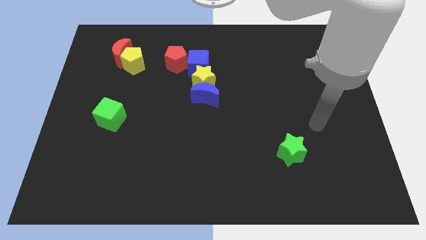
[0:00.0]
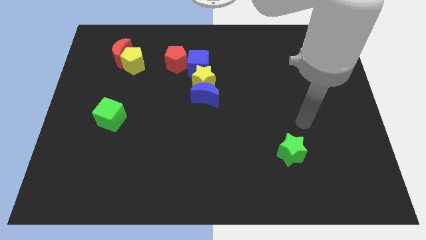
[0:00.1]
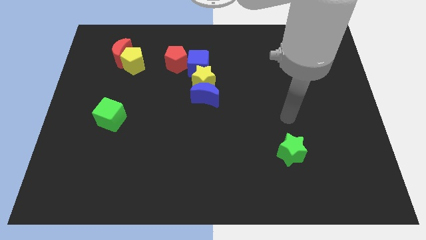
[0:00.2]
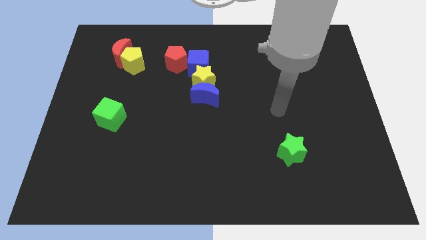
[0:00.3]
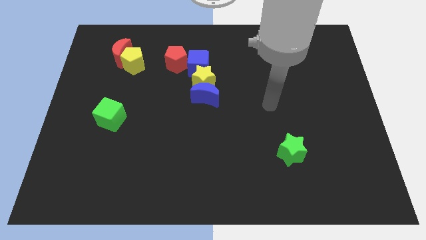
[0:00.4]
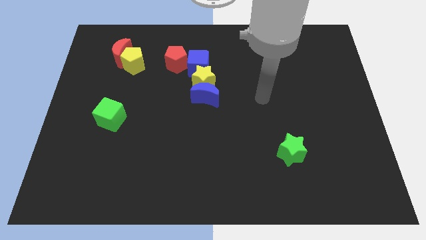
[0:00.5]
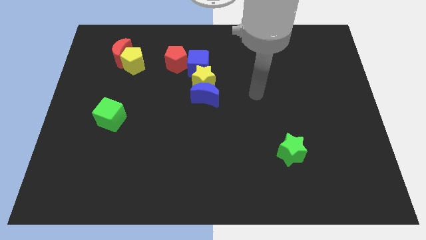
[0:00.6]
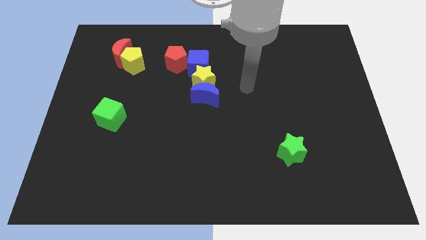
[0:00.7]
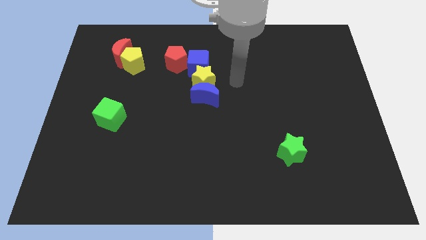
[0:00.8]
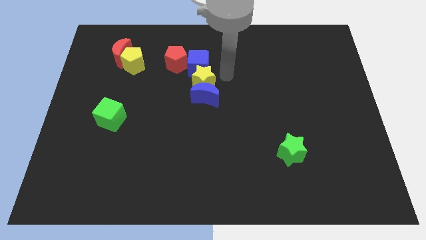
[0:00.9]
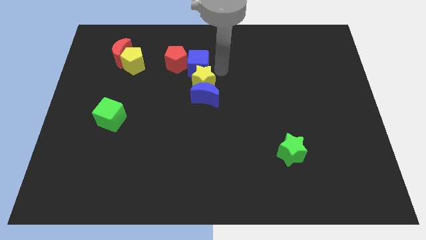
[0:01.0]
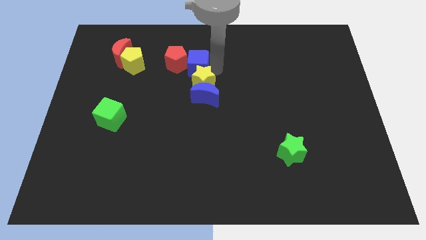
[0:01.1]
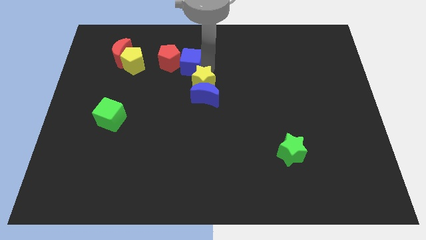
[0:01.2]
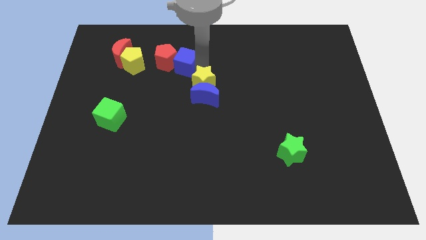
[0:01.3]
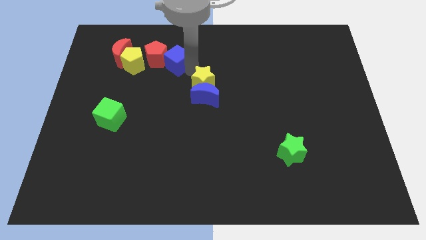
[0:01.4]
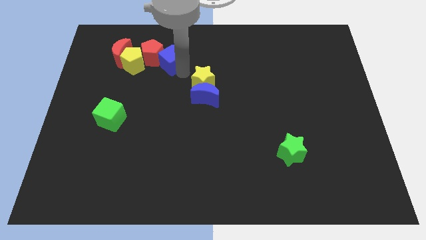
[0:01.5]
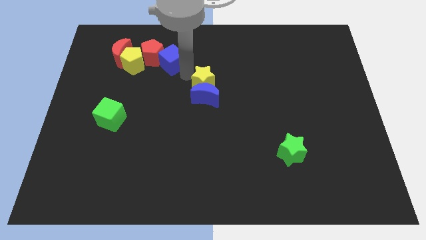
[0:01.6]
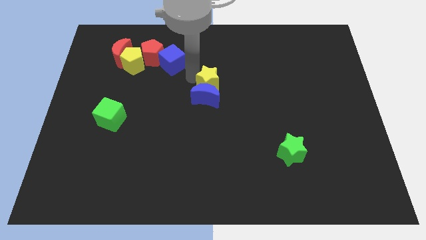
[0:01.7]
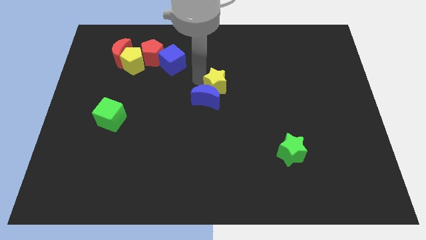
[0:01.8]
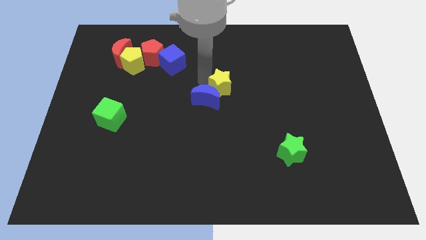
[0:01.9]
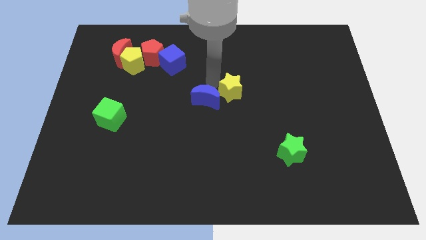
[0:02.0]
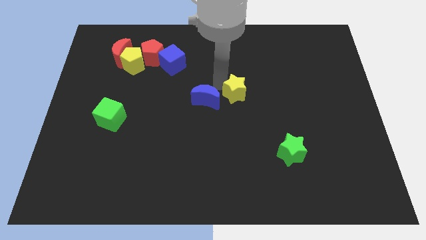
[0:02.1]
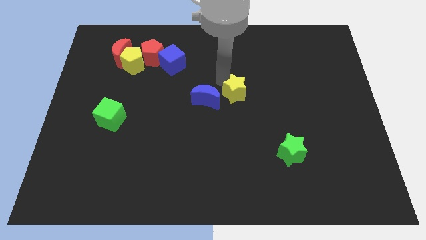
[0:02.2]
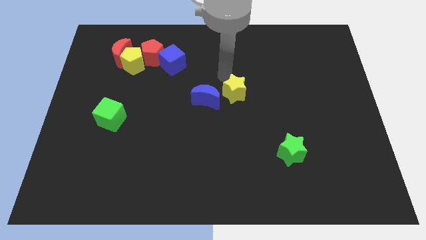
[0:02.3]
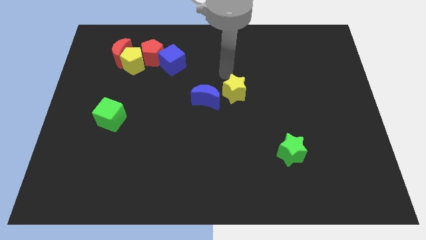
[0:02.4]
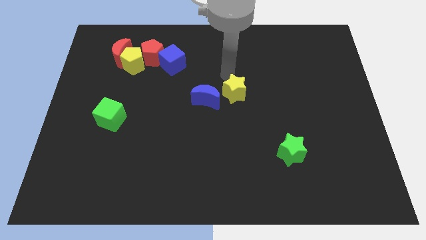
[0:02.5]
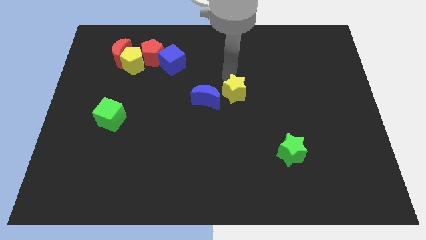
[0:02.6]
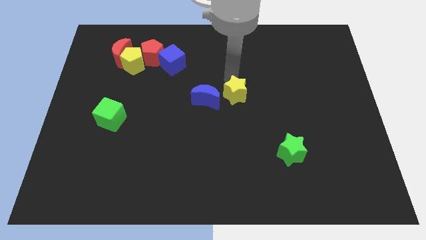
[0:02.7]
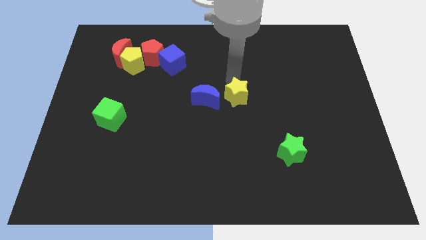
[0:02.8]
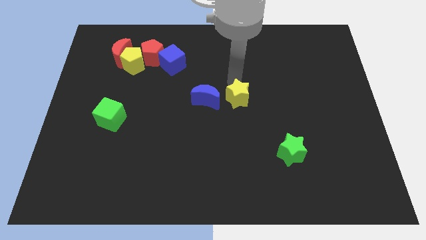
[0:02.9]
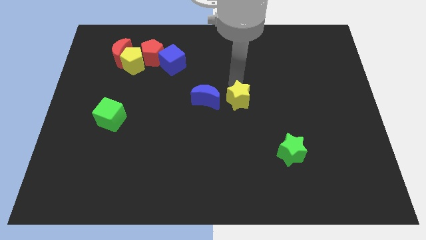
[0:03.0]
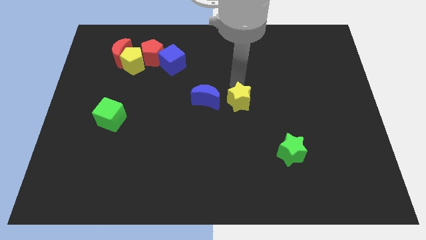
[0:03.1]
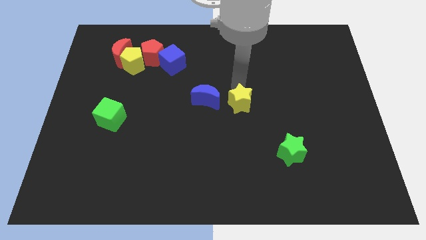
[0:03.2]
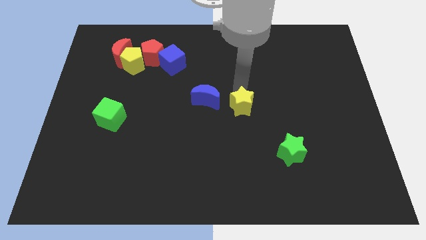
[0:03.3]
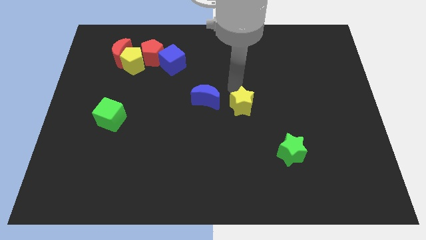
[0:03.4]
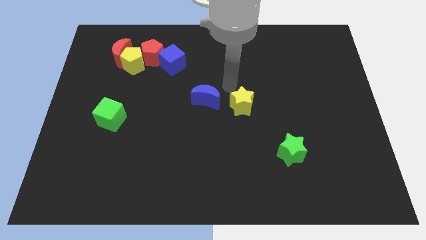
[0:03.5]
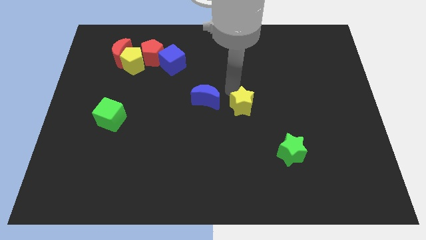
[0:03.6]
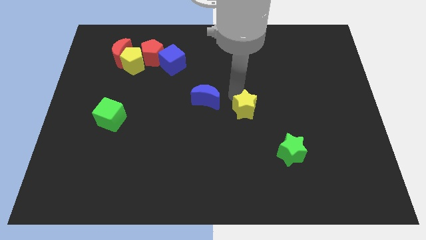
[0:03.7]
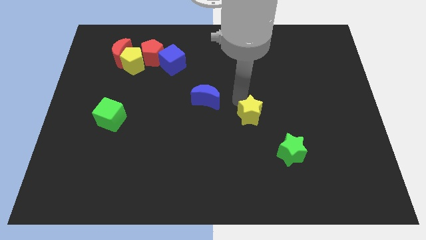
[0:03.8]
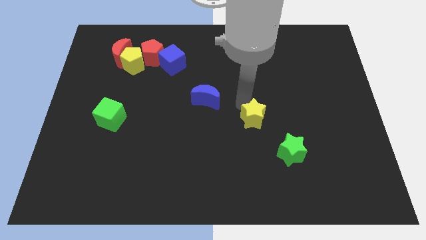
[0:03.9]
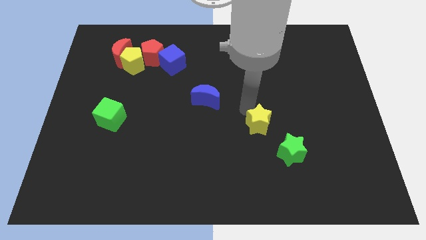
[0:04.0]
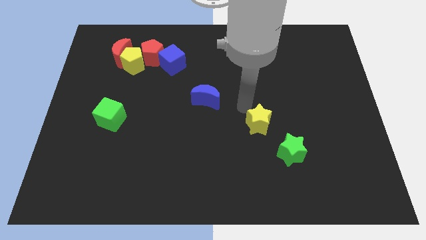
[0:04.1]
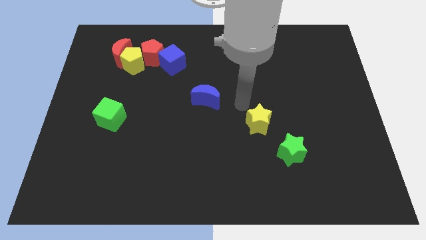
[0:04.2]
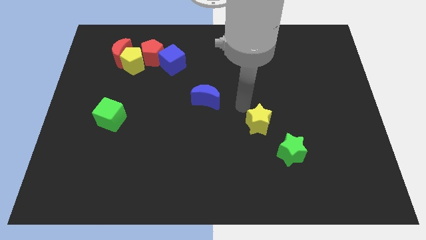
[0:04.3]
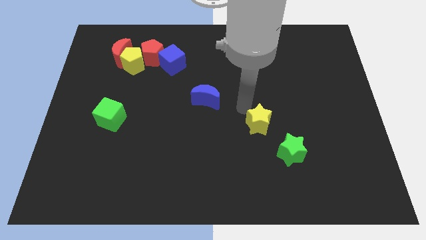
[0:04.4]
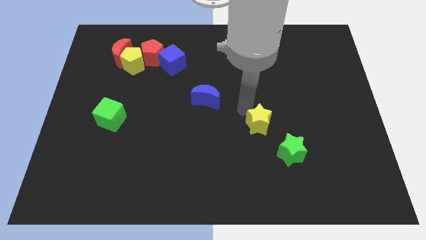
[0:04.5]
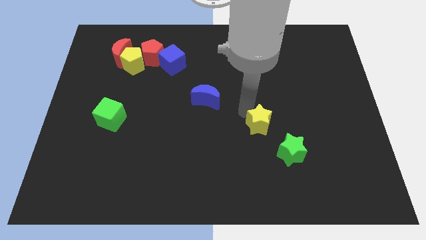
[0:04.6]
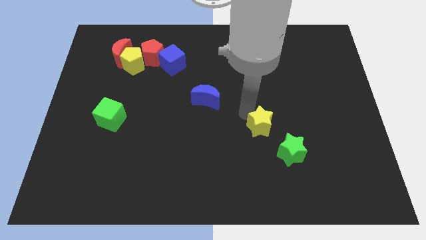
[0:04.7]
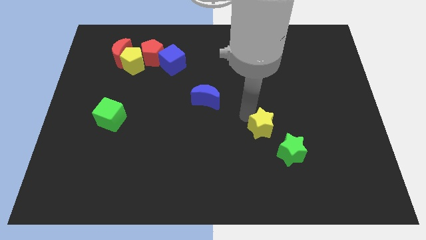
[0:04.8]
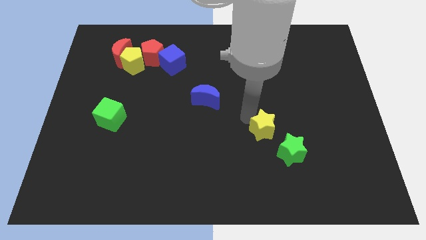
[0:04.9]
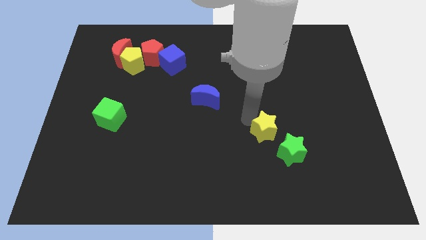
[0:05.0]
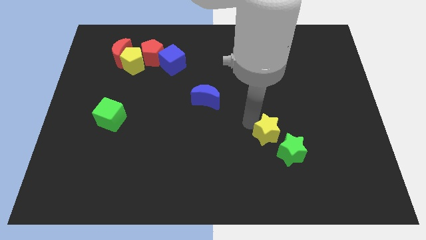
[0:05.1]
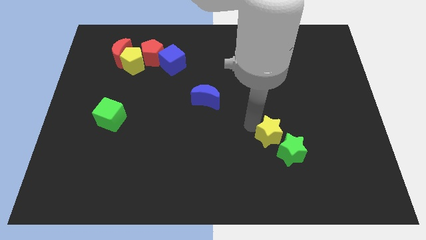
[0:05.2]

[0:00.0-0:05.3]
move the yellow star towards the green star

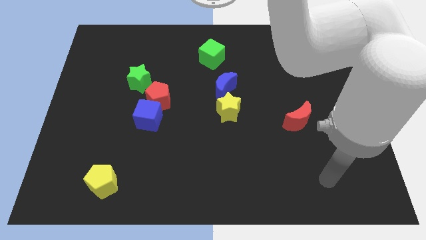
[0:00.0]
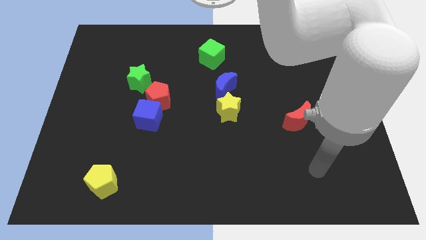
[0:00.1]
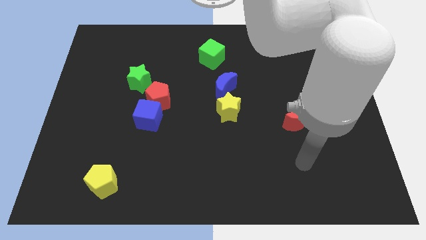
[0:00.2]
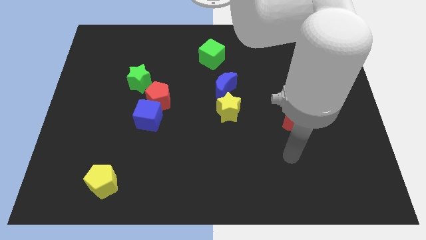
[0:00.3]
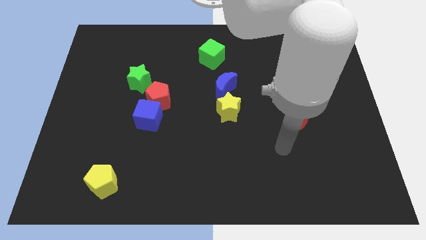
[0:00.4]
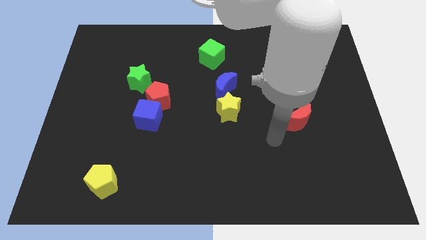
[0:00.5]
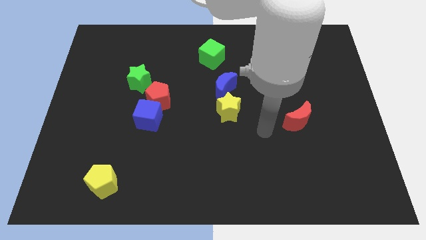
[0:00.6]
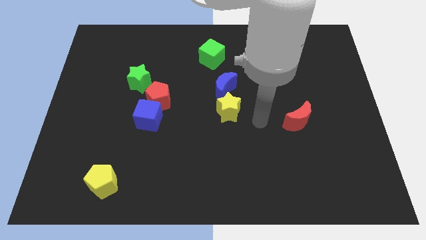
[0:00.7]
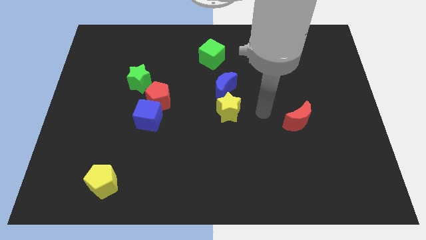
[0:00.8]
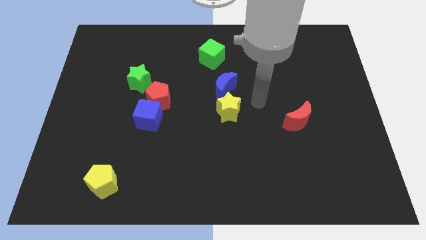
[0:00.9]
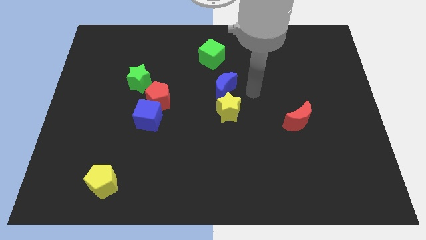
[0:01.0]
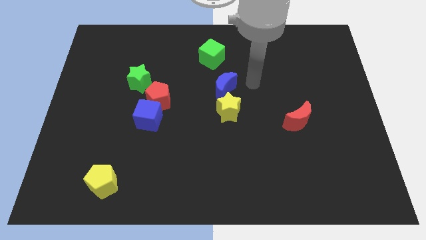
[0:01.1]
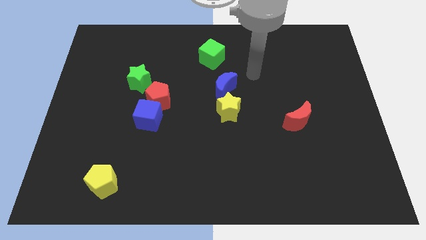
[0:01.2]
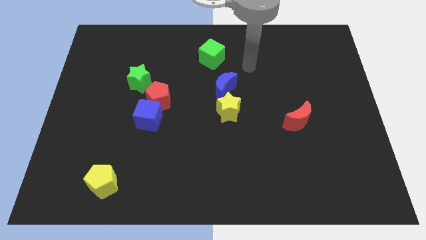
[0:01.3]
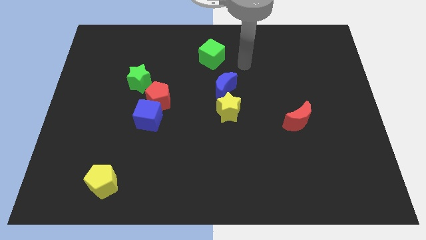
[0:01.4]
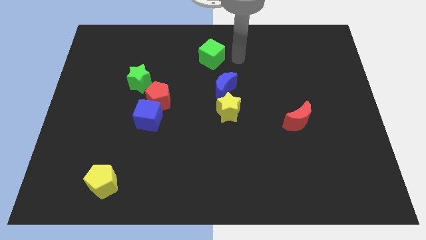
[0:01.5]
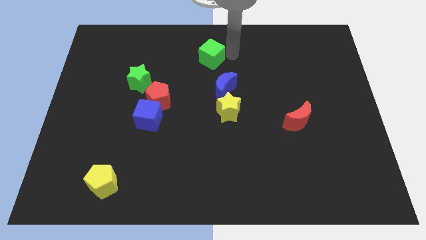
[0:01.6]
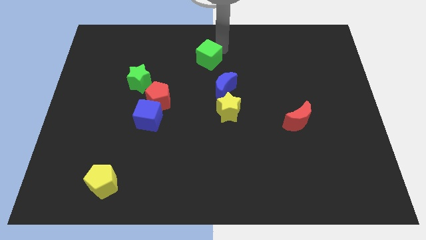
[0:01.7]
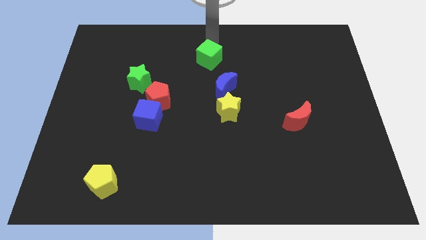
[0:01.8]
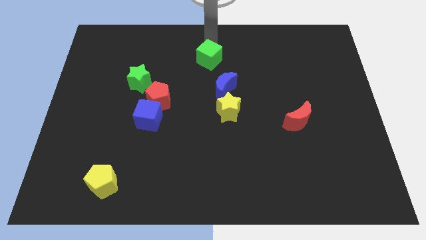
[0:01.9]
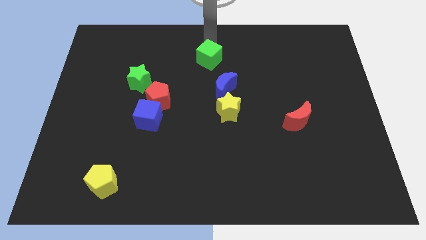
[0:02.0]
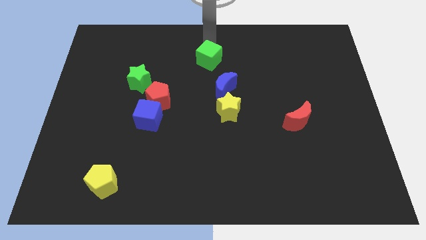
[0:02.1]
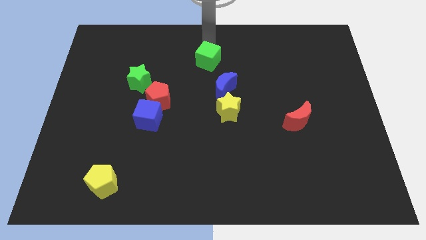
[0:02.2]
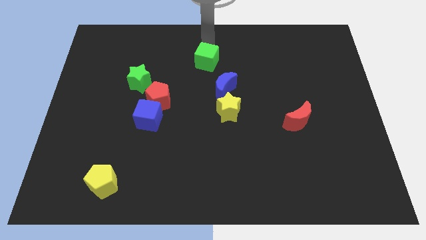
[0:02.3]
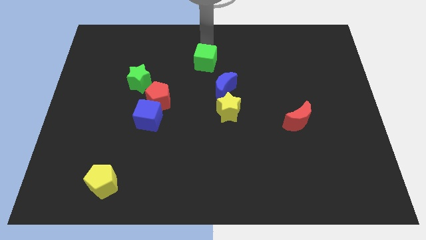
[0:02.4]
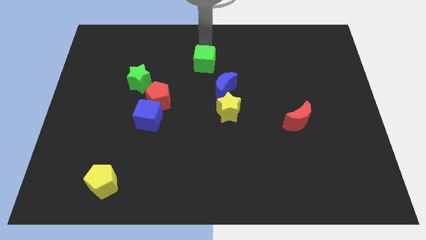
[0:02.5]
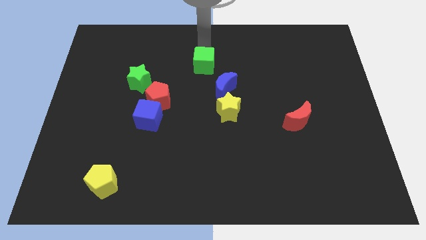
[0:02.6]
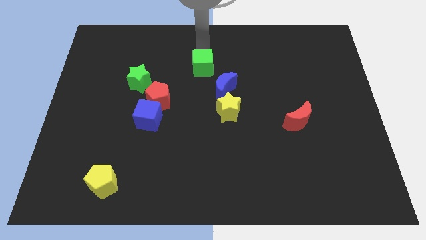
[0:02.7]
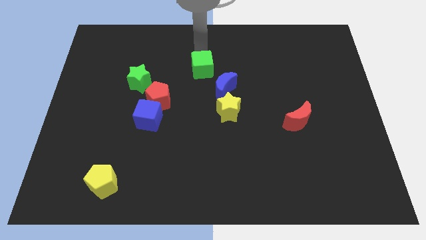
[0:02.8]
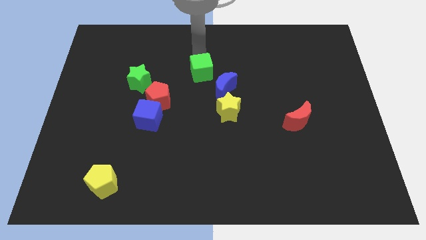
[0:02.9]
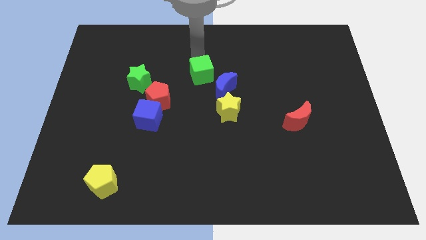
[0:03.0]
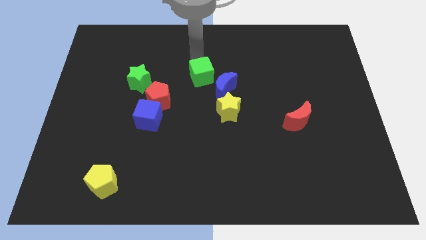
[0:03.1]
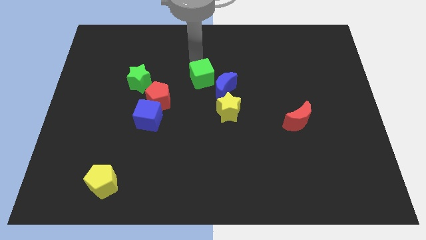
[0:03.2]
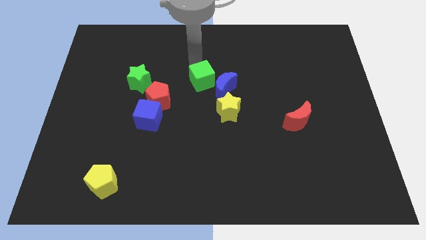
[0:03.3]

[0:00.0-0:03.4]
push the green cube towards the blue moon
